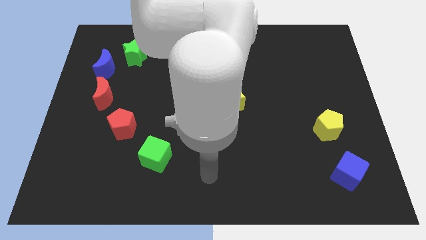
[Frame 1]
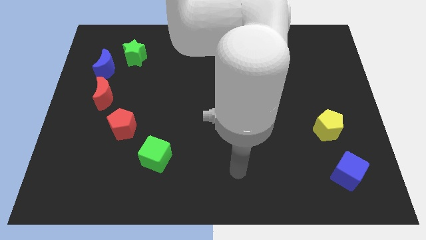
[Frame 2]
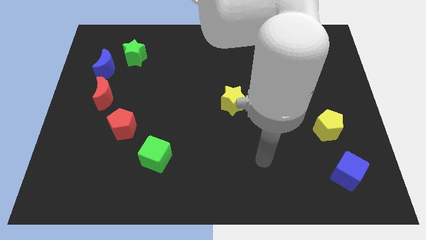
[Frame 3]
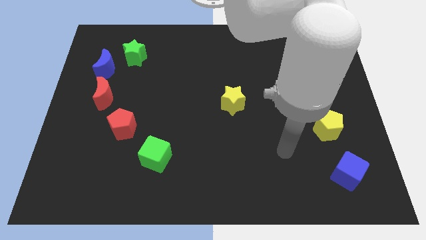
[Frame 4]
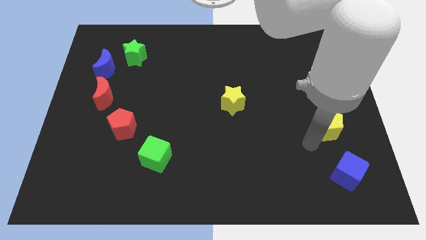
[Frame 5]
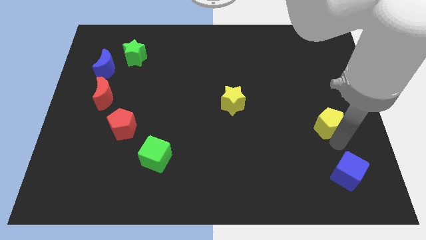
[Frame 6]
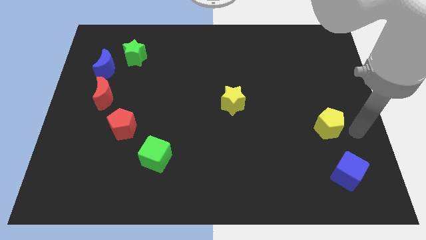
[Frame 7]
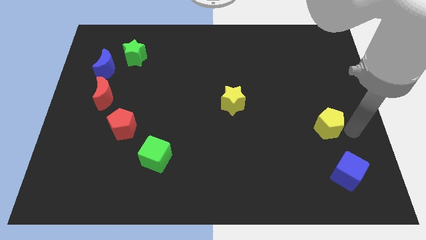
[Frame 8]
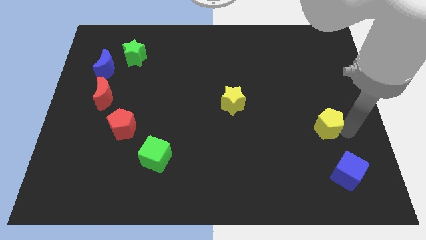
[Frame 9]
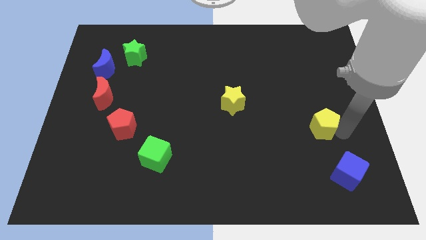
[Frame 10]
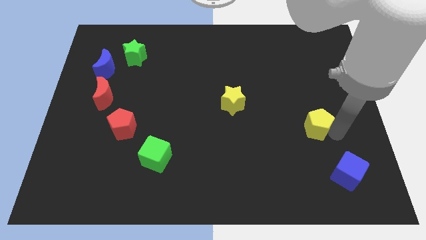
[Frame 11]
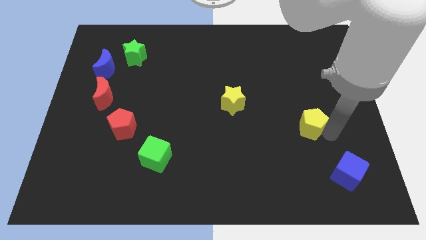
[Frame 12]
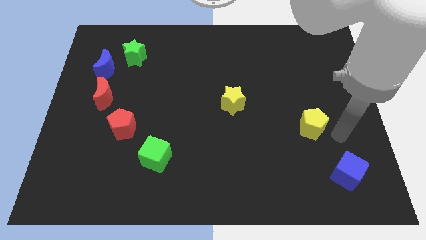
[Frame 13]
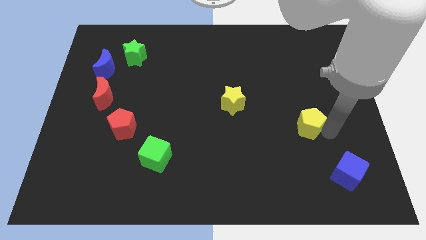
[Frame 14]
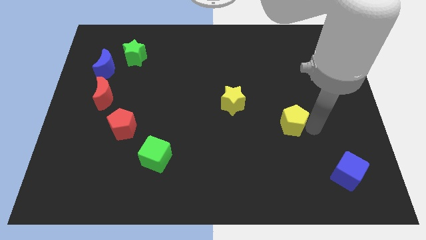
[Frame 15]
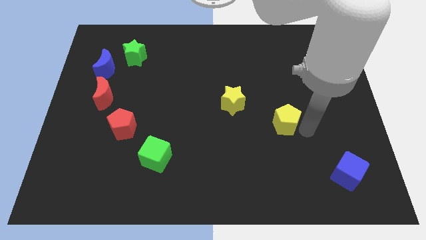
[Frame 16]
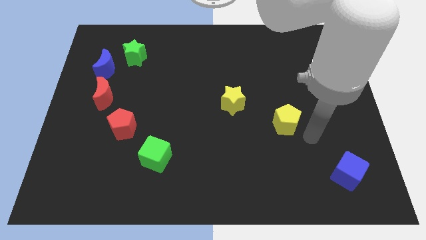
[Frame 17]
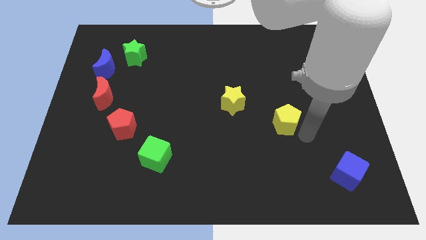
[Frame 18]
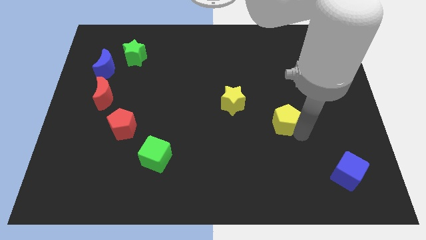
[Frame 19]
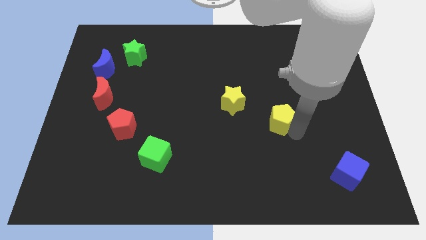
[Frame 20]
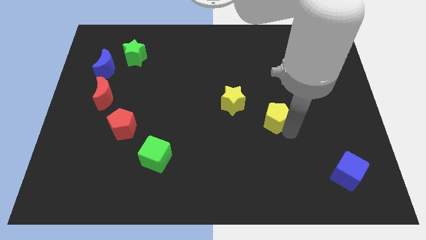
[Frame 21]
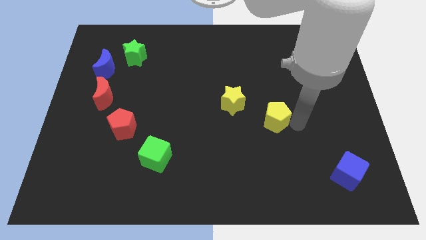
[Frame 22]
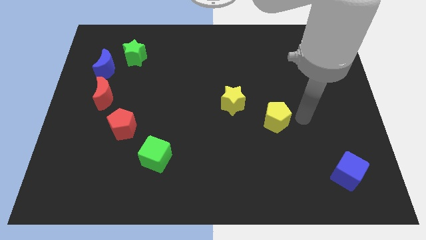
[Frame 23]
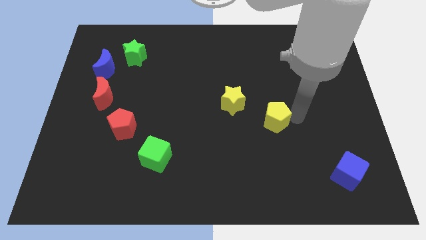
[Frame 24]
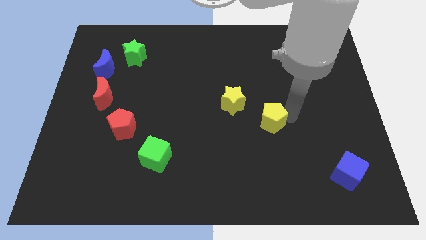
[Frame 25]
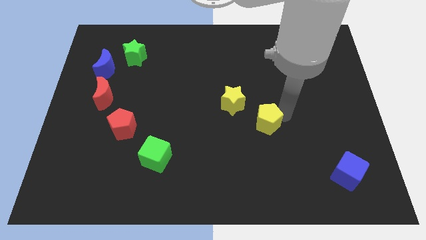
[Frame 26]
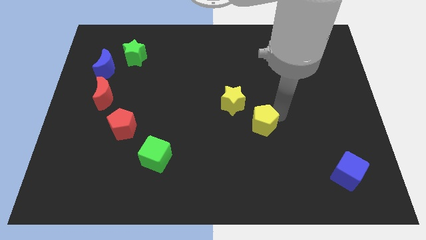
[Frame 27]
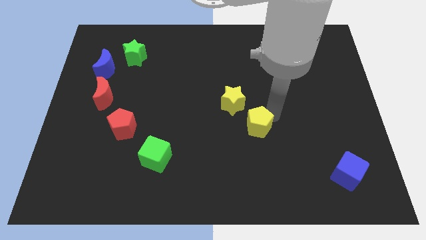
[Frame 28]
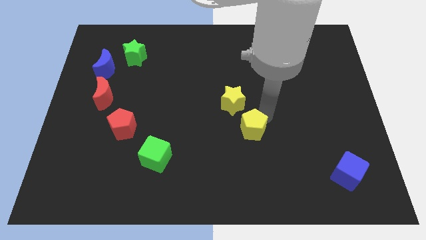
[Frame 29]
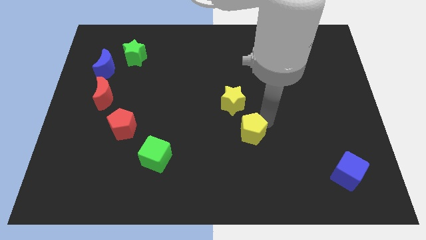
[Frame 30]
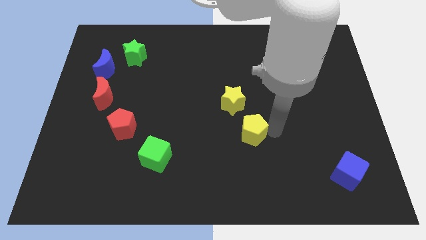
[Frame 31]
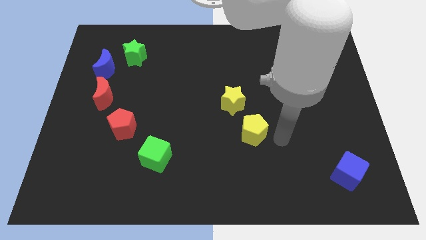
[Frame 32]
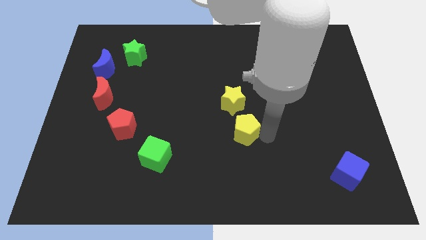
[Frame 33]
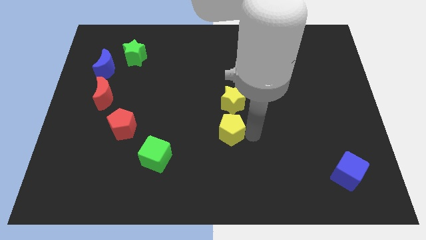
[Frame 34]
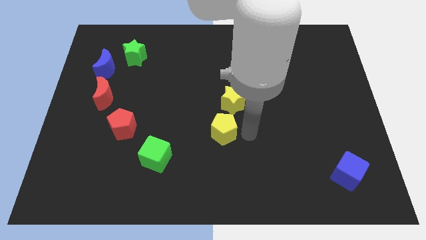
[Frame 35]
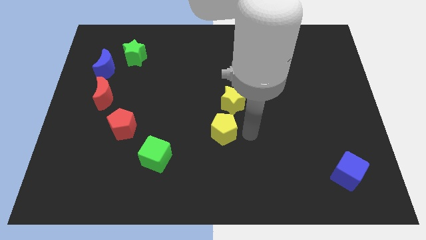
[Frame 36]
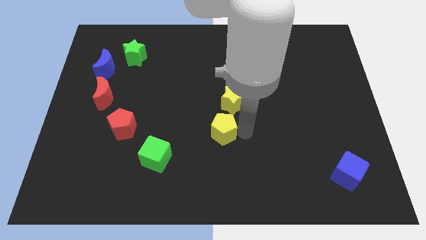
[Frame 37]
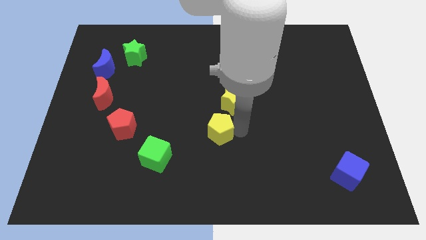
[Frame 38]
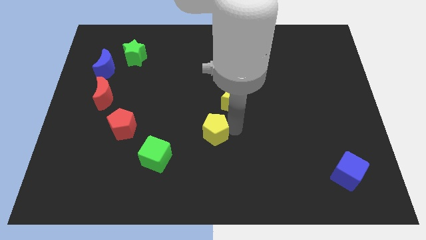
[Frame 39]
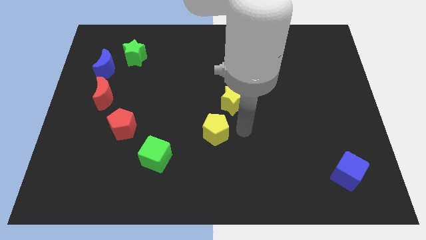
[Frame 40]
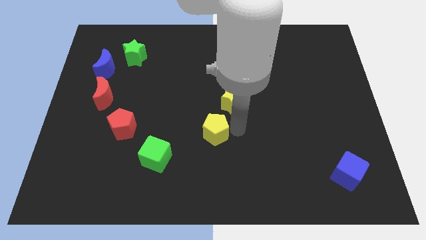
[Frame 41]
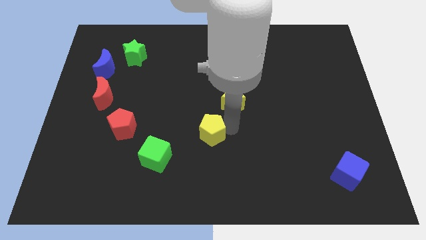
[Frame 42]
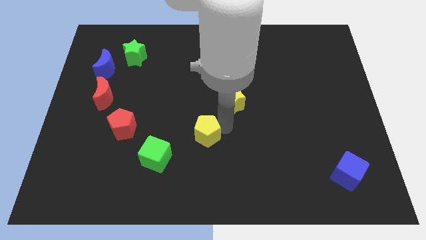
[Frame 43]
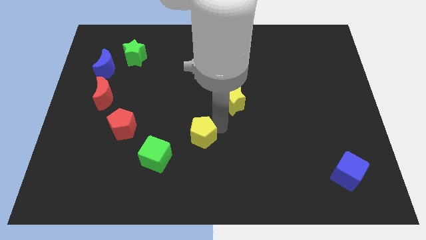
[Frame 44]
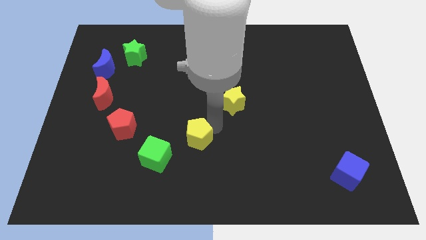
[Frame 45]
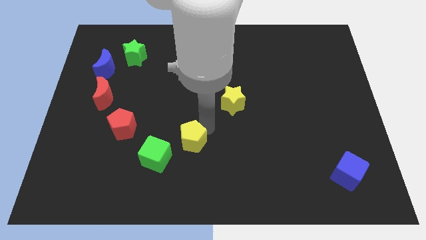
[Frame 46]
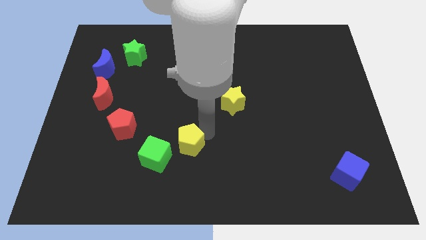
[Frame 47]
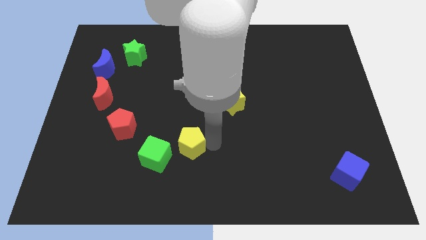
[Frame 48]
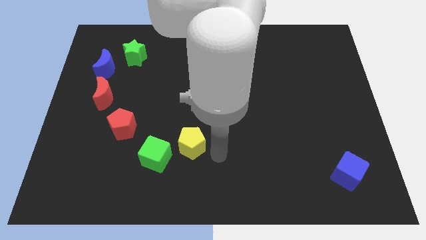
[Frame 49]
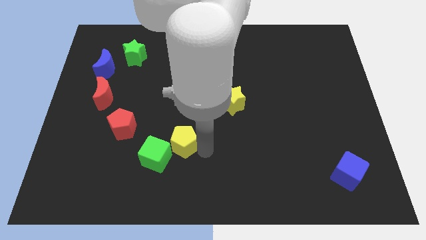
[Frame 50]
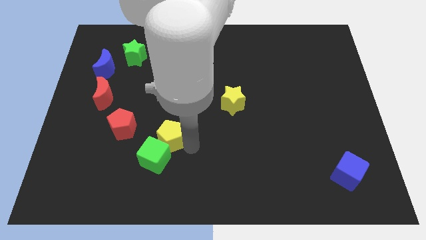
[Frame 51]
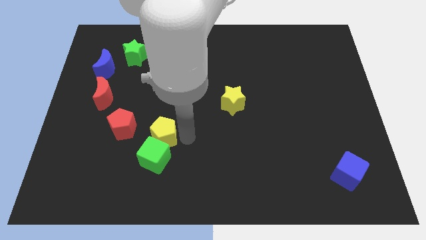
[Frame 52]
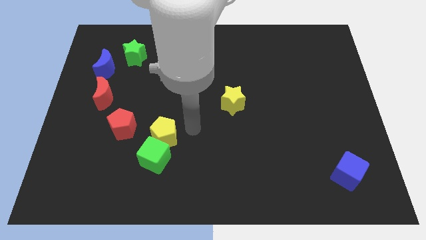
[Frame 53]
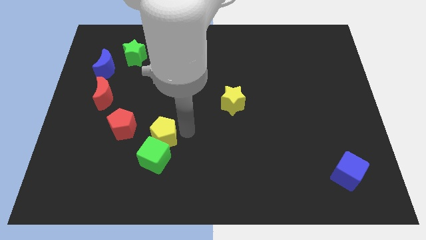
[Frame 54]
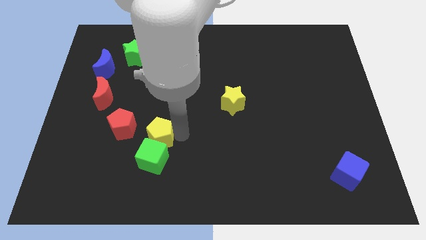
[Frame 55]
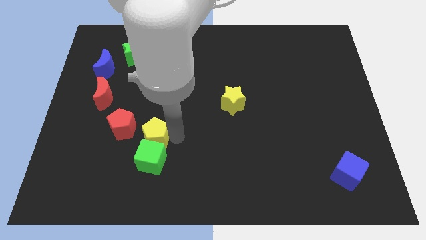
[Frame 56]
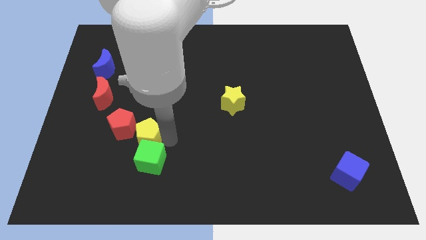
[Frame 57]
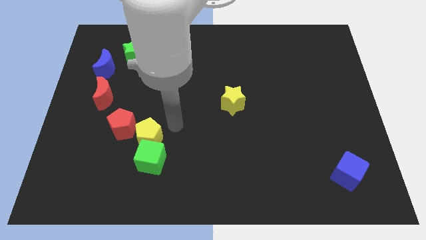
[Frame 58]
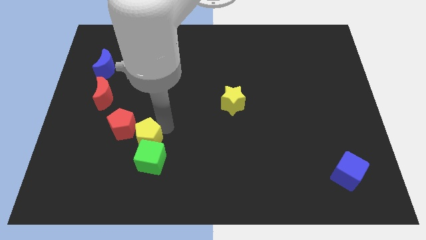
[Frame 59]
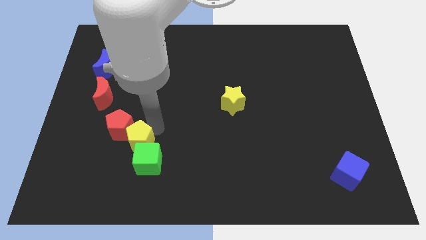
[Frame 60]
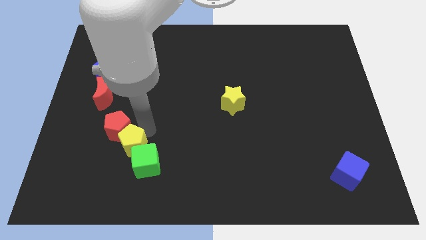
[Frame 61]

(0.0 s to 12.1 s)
slide the yellow pentagon left of the green cube

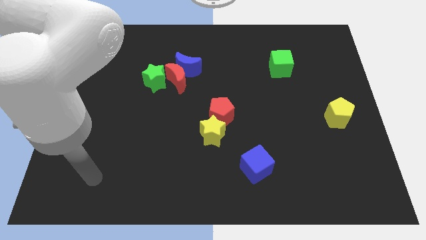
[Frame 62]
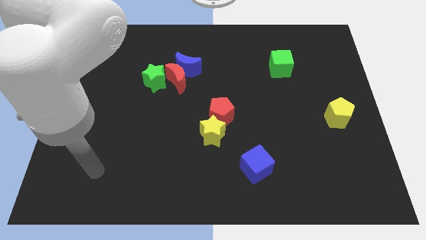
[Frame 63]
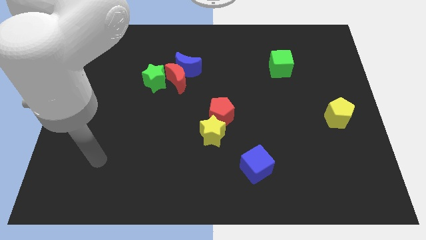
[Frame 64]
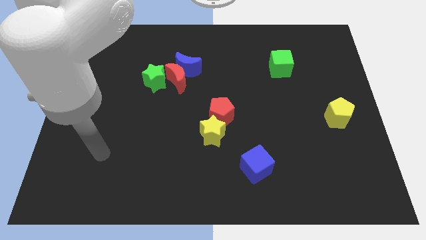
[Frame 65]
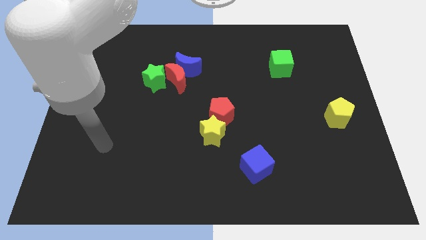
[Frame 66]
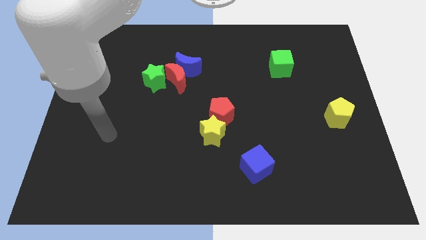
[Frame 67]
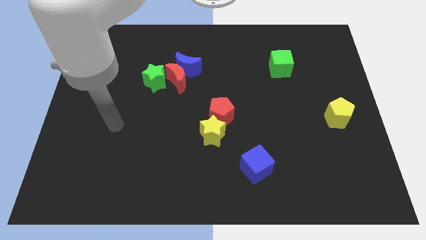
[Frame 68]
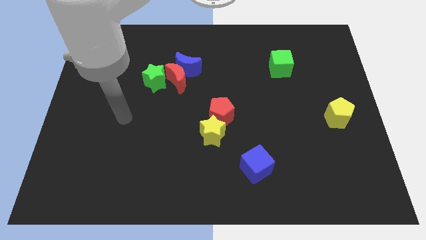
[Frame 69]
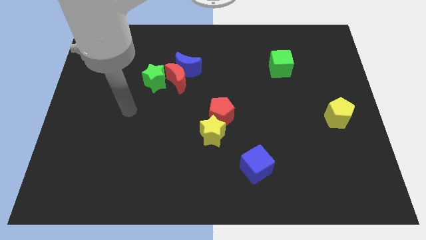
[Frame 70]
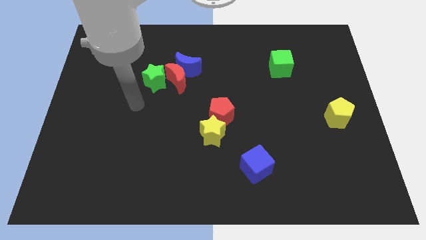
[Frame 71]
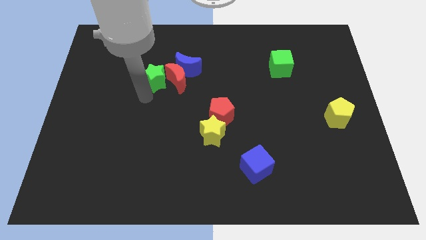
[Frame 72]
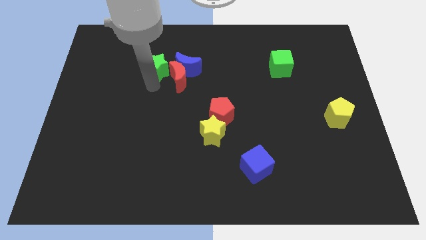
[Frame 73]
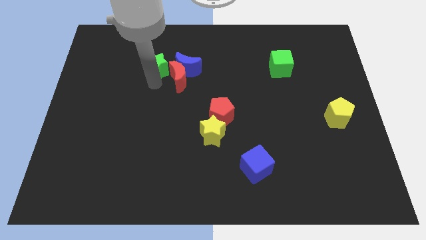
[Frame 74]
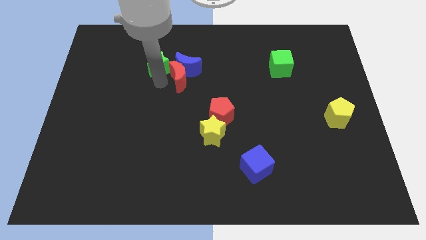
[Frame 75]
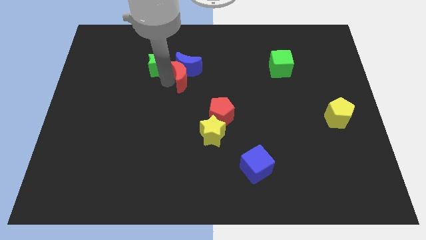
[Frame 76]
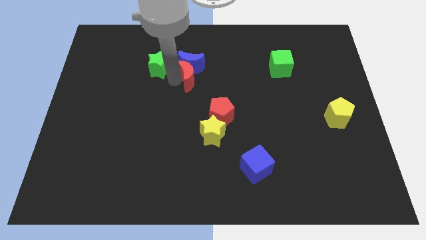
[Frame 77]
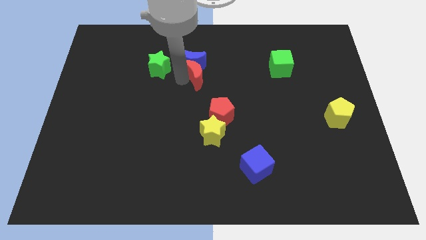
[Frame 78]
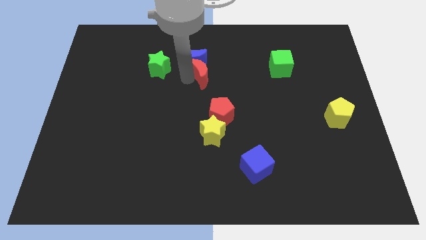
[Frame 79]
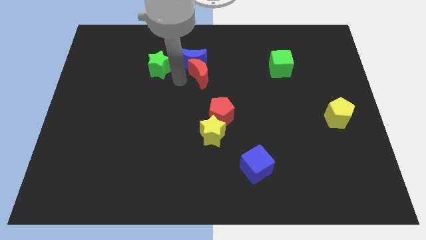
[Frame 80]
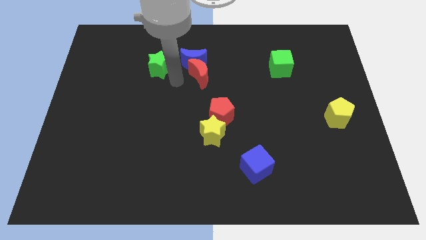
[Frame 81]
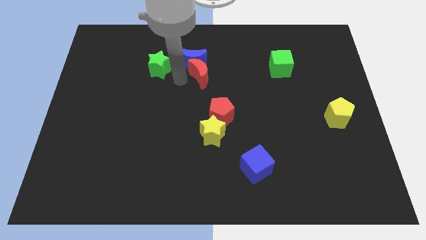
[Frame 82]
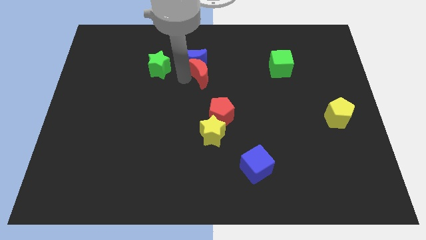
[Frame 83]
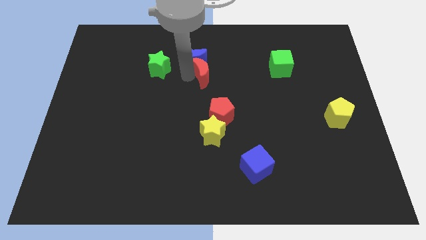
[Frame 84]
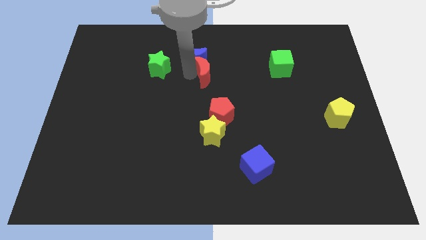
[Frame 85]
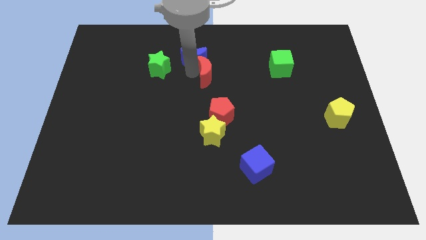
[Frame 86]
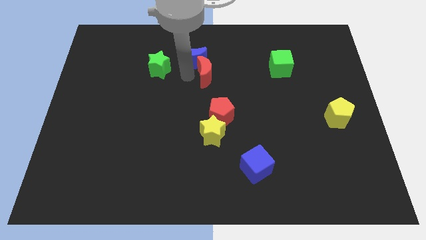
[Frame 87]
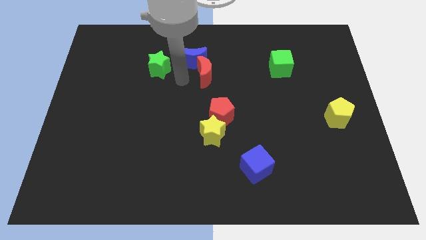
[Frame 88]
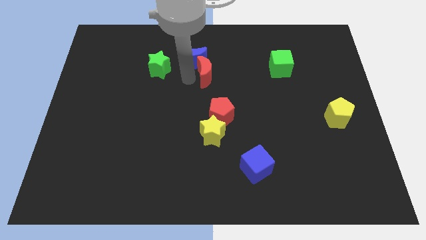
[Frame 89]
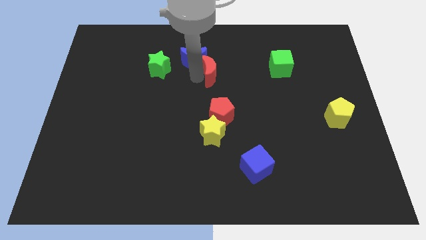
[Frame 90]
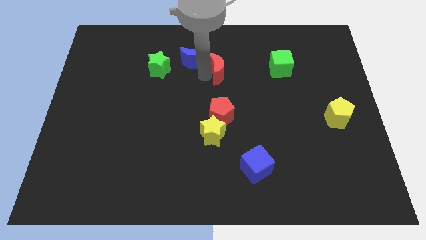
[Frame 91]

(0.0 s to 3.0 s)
move the red moon to the left of the green cube
